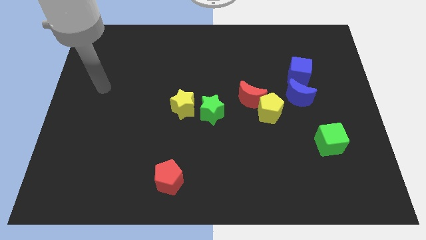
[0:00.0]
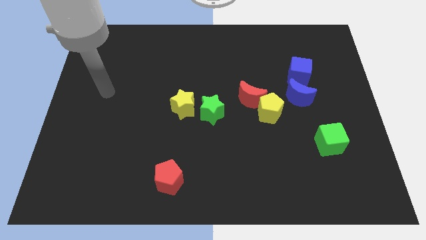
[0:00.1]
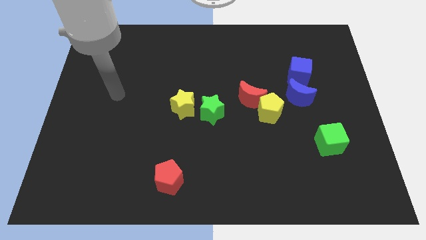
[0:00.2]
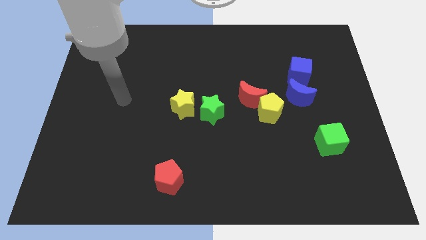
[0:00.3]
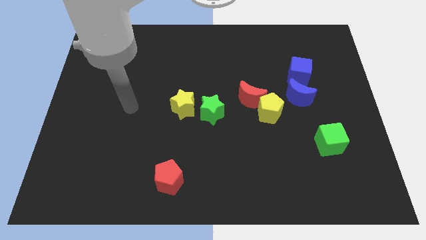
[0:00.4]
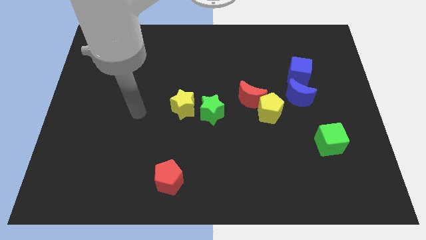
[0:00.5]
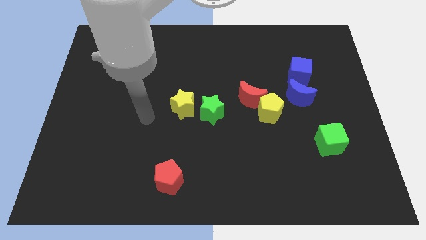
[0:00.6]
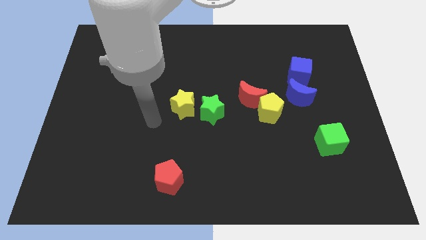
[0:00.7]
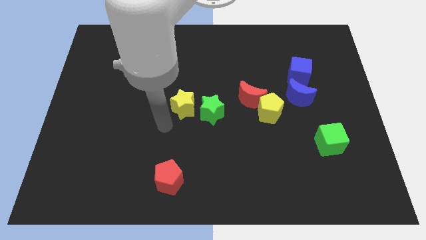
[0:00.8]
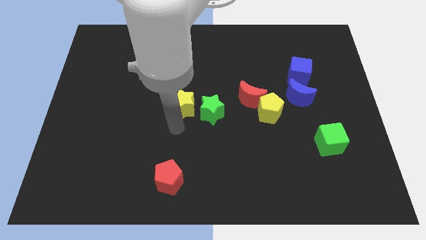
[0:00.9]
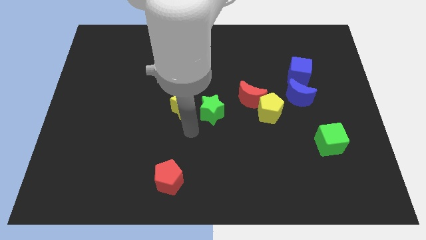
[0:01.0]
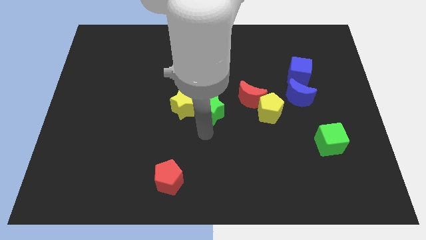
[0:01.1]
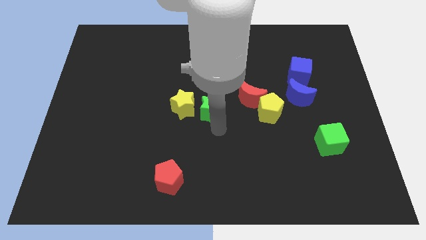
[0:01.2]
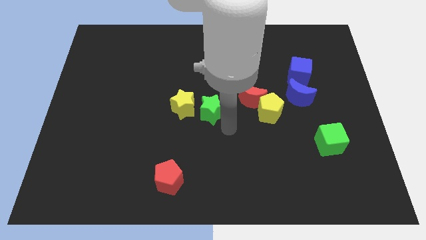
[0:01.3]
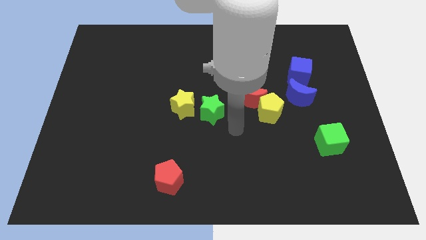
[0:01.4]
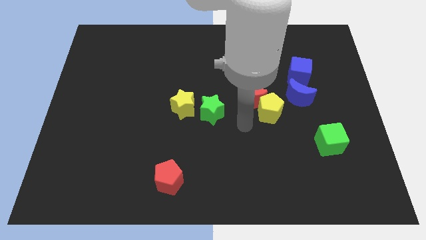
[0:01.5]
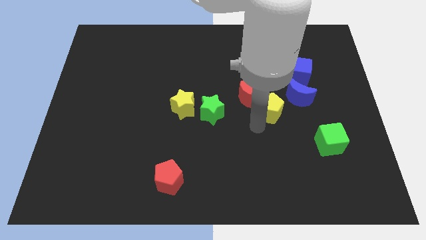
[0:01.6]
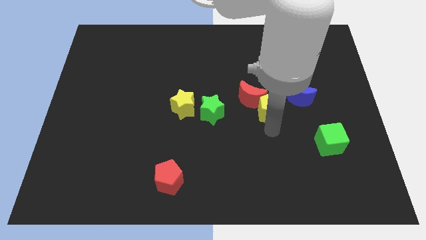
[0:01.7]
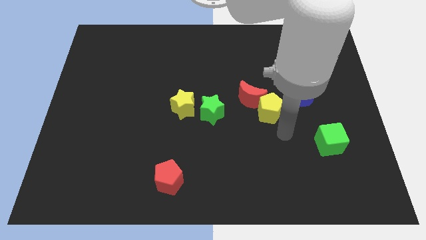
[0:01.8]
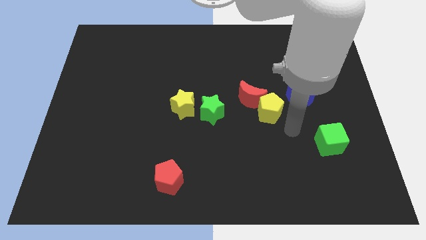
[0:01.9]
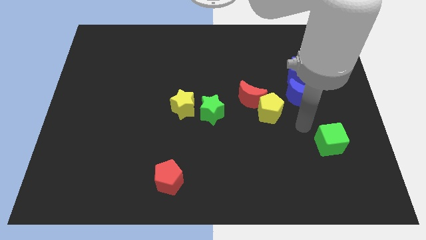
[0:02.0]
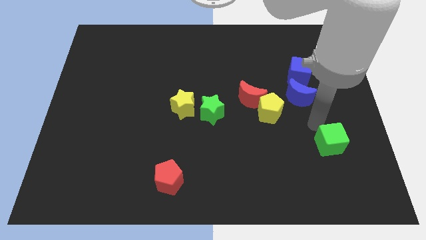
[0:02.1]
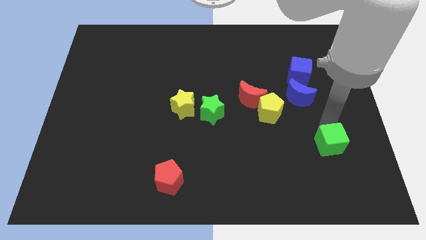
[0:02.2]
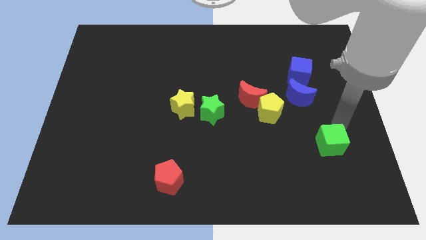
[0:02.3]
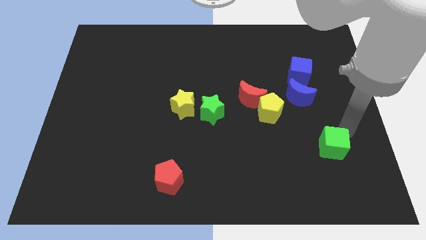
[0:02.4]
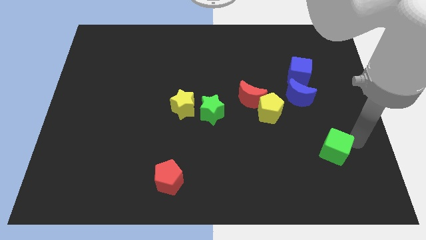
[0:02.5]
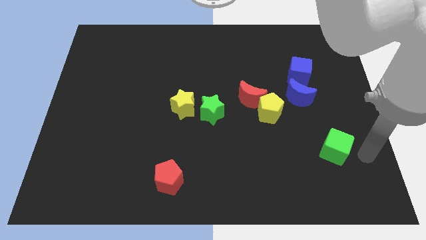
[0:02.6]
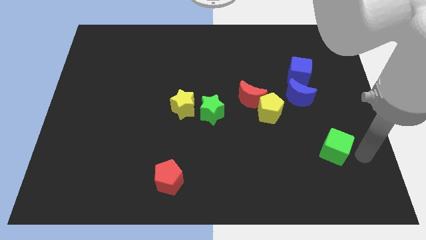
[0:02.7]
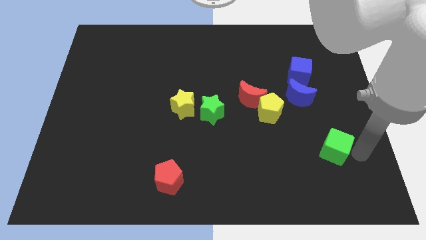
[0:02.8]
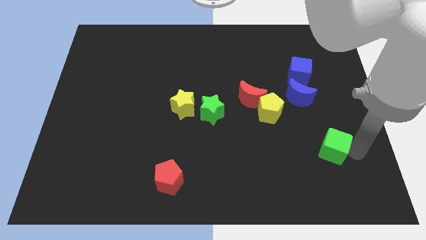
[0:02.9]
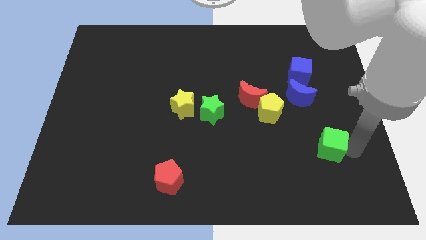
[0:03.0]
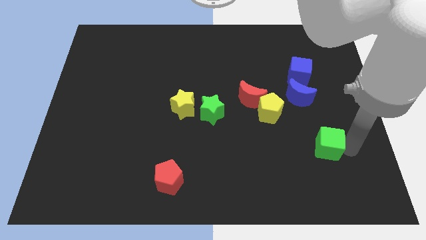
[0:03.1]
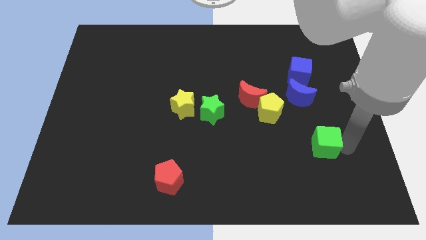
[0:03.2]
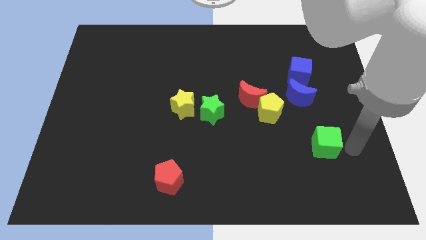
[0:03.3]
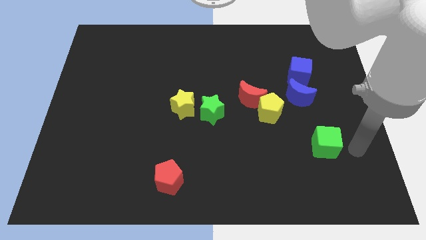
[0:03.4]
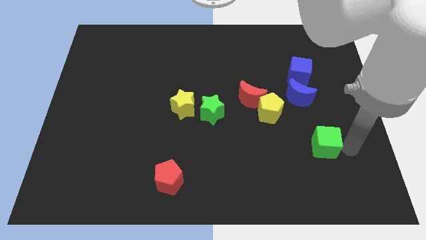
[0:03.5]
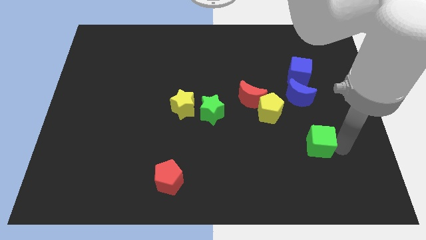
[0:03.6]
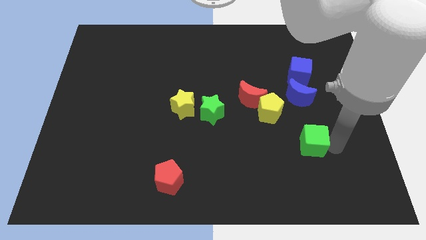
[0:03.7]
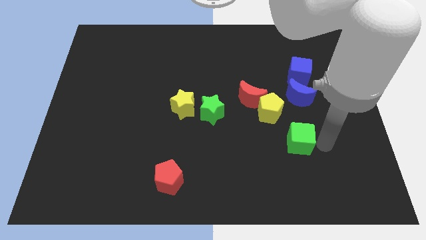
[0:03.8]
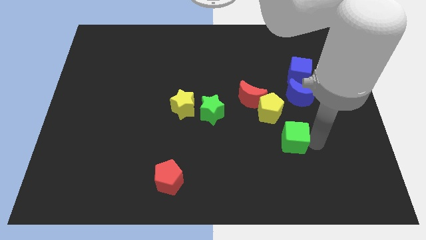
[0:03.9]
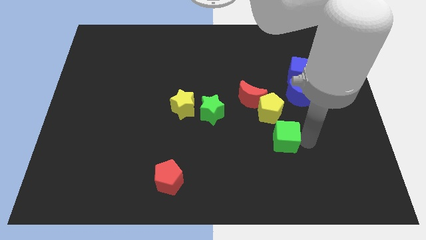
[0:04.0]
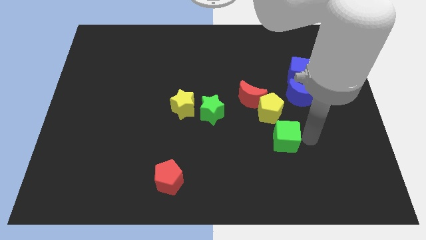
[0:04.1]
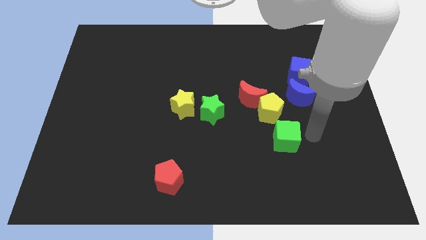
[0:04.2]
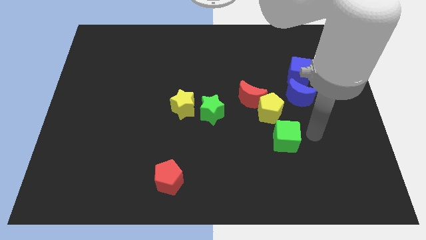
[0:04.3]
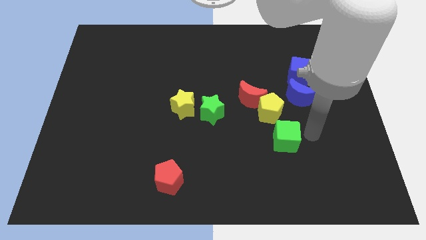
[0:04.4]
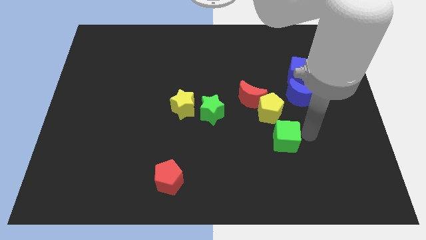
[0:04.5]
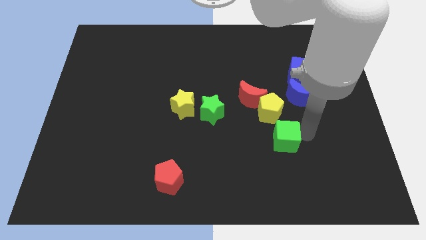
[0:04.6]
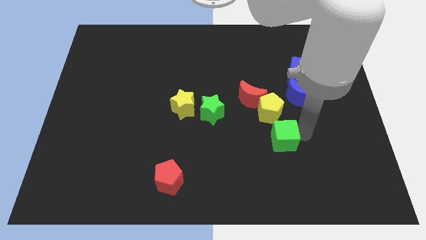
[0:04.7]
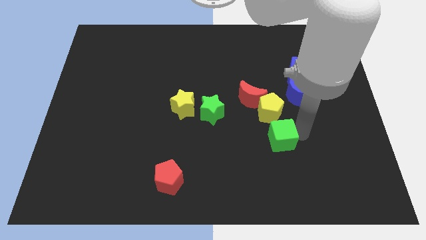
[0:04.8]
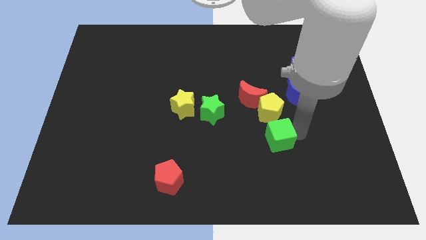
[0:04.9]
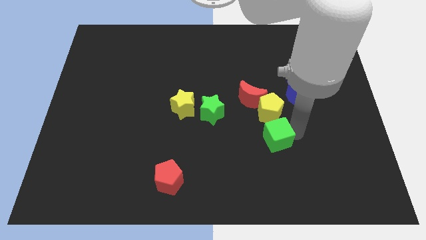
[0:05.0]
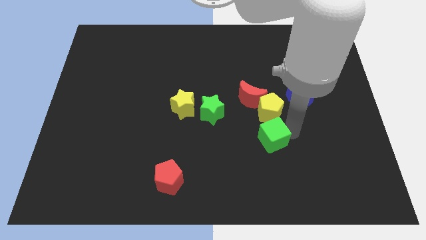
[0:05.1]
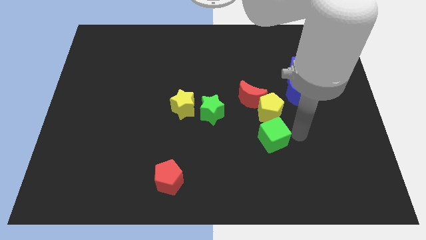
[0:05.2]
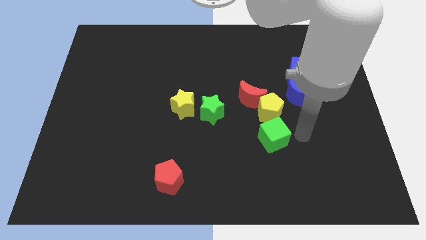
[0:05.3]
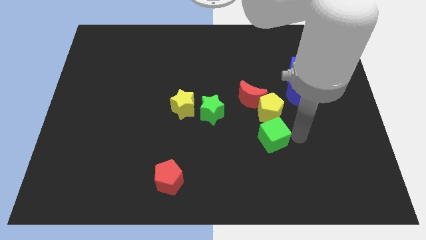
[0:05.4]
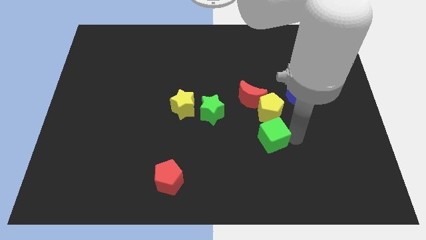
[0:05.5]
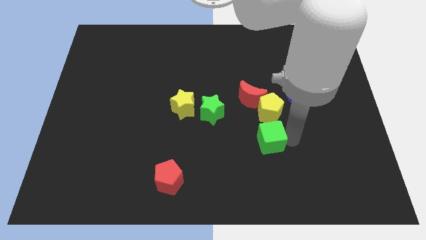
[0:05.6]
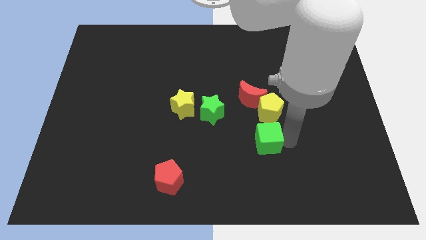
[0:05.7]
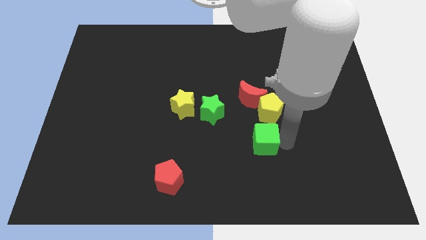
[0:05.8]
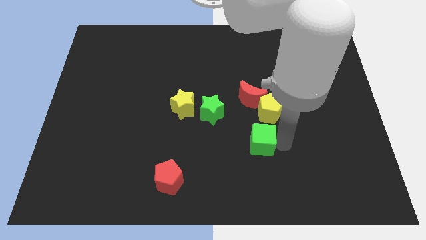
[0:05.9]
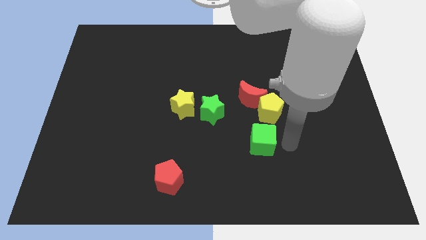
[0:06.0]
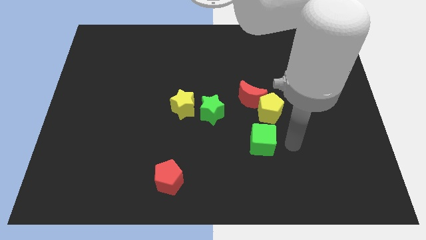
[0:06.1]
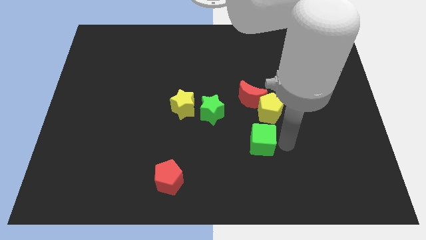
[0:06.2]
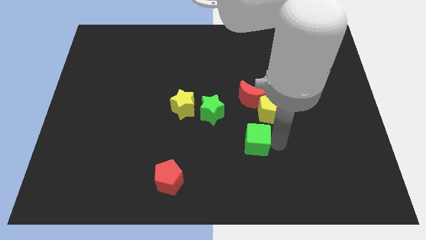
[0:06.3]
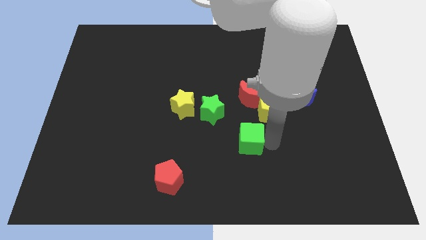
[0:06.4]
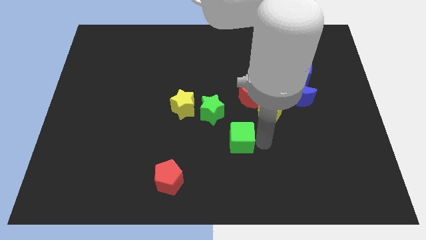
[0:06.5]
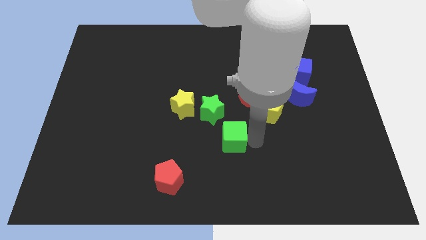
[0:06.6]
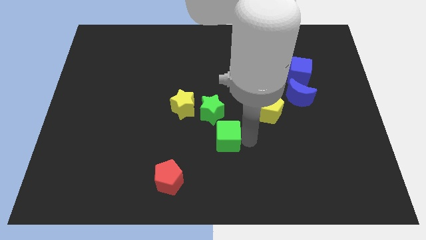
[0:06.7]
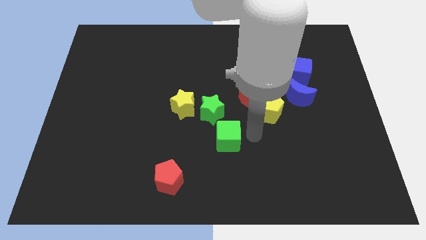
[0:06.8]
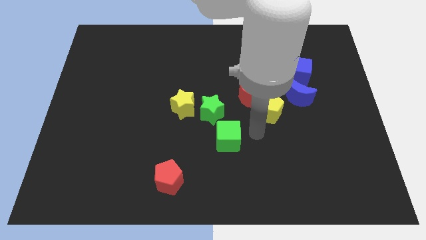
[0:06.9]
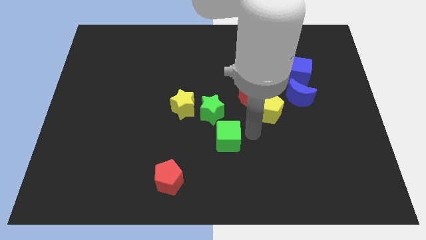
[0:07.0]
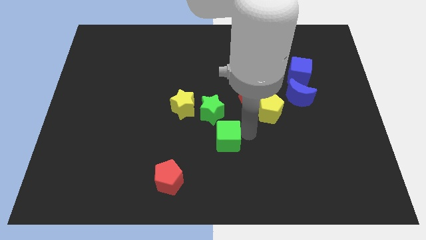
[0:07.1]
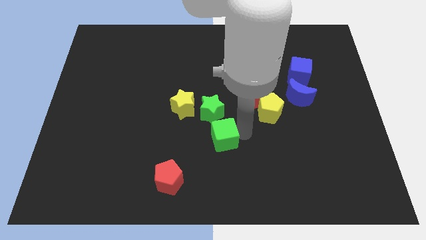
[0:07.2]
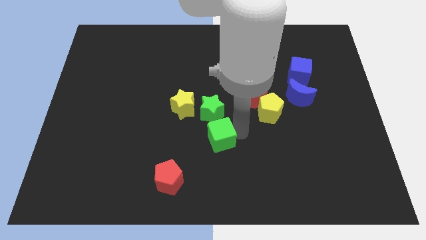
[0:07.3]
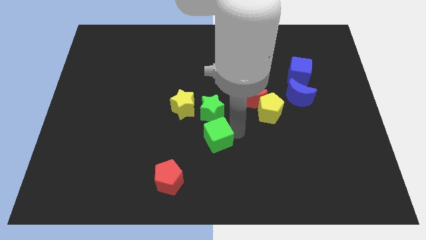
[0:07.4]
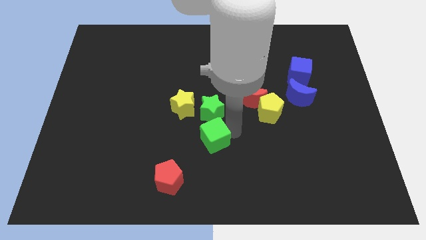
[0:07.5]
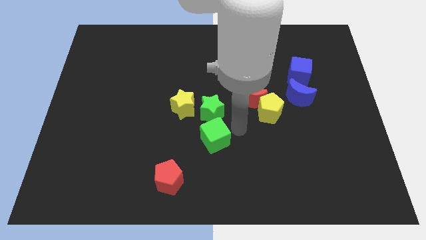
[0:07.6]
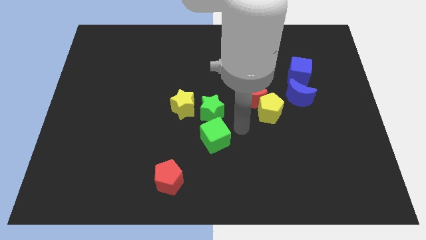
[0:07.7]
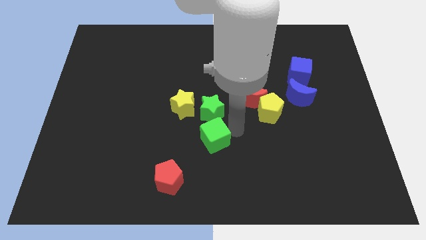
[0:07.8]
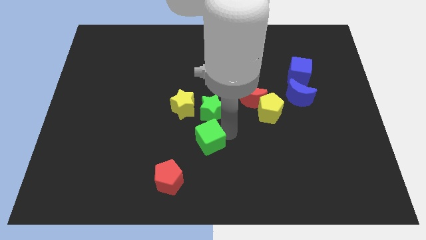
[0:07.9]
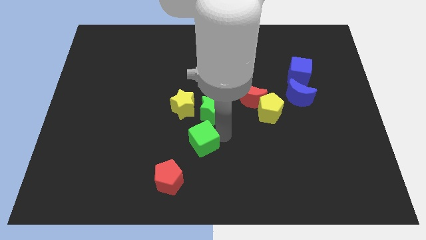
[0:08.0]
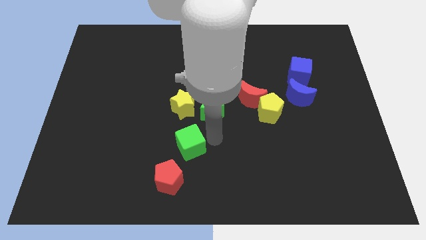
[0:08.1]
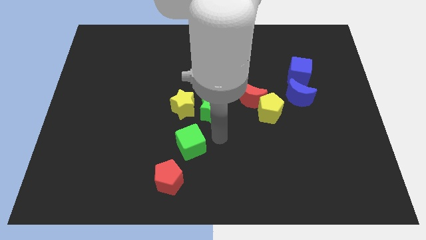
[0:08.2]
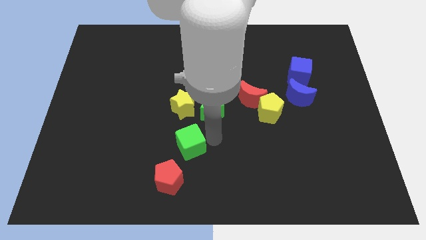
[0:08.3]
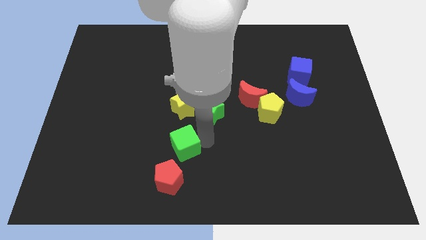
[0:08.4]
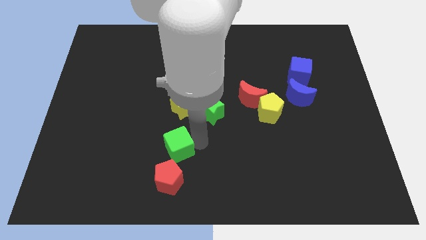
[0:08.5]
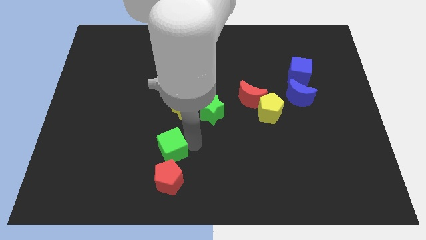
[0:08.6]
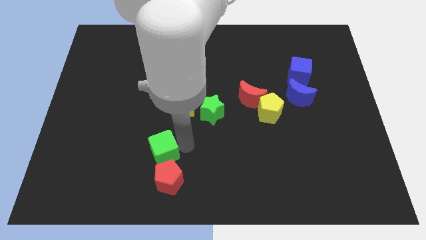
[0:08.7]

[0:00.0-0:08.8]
slide the green cube to the top left of the red pentagon
